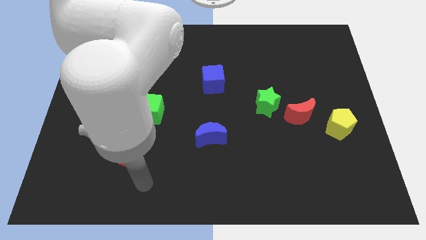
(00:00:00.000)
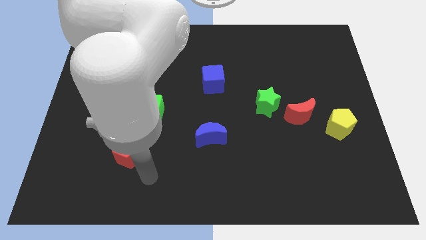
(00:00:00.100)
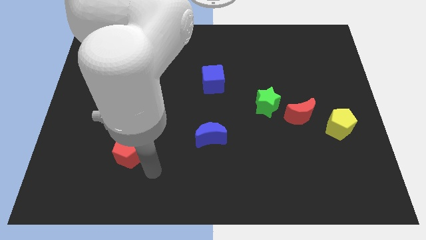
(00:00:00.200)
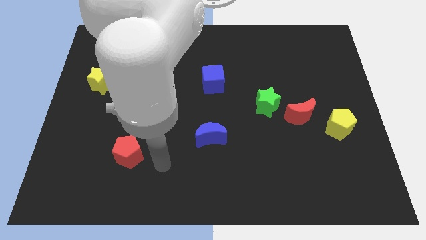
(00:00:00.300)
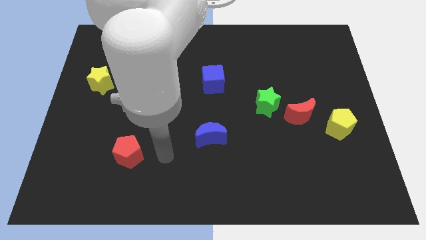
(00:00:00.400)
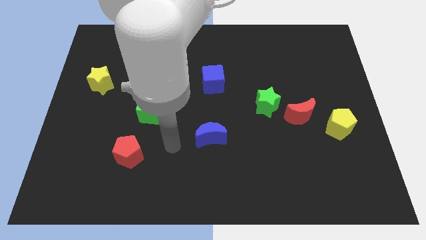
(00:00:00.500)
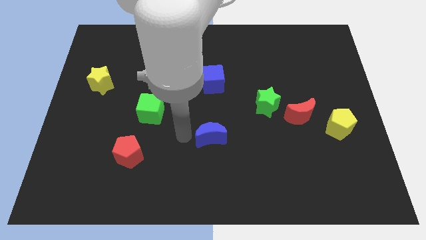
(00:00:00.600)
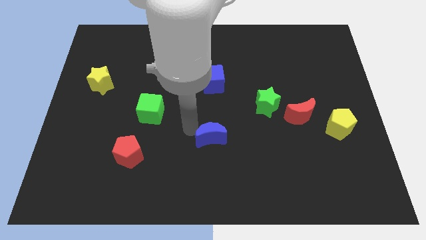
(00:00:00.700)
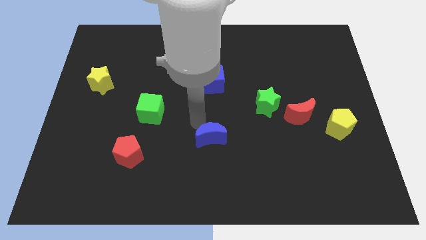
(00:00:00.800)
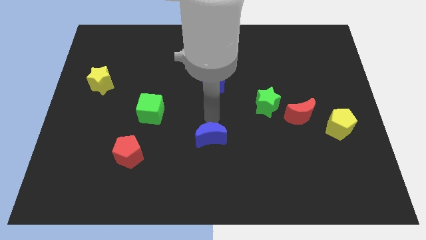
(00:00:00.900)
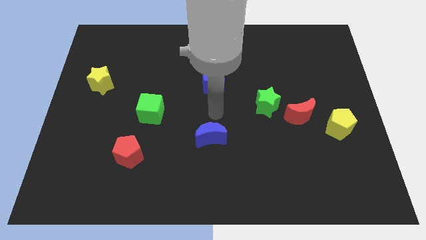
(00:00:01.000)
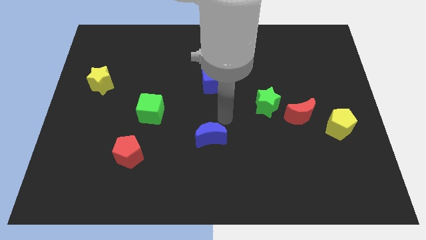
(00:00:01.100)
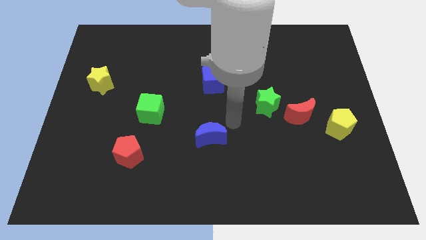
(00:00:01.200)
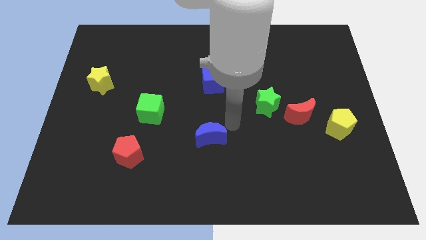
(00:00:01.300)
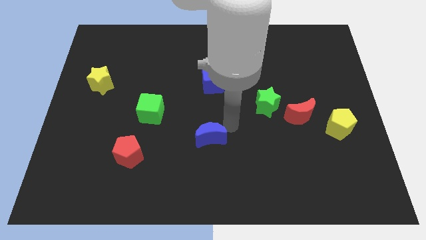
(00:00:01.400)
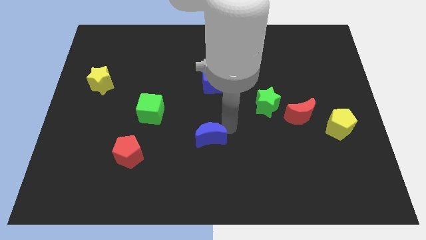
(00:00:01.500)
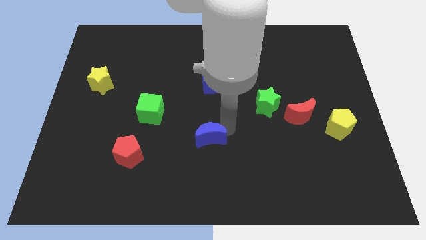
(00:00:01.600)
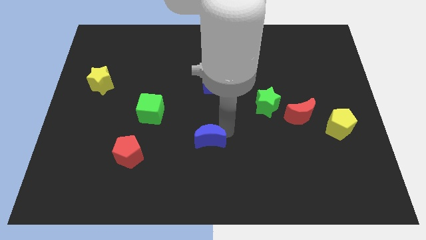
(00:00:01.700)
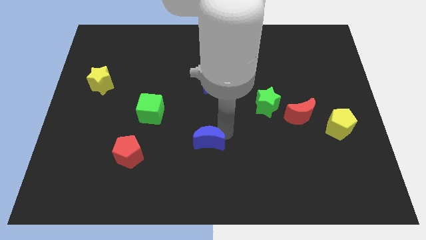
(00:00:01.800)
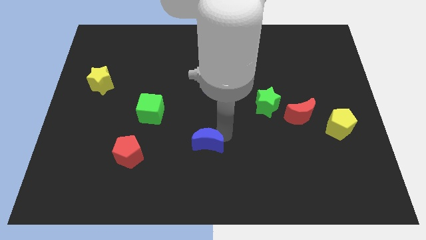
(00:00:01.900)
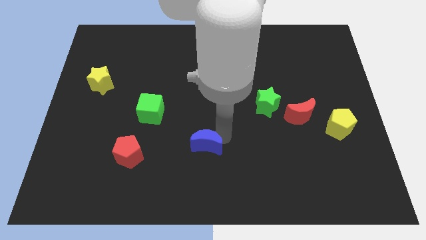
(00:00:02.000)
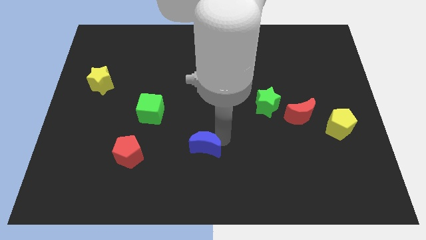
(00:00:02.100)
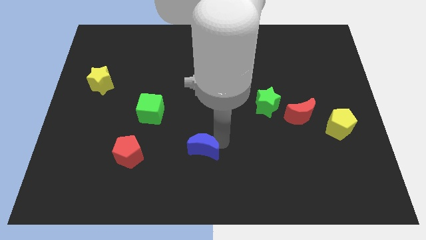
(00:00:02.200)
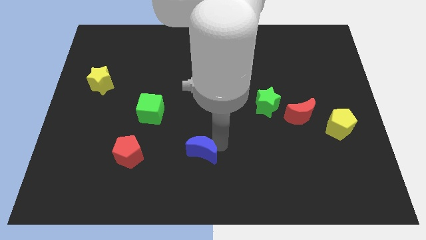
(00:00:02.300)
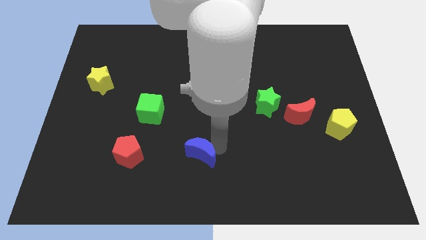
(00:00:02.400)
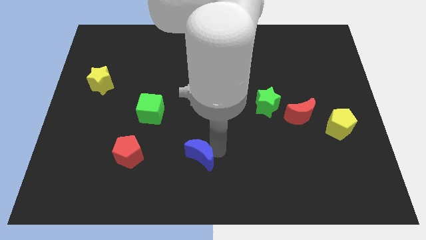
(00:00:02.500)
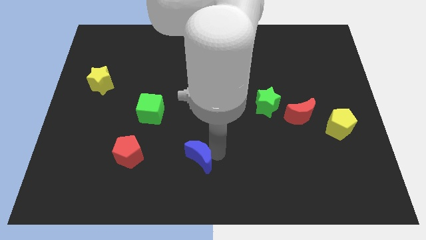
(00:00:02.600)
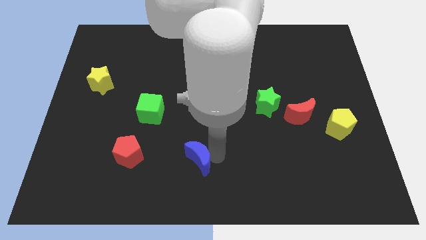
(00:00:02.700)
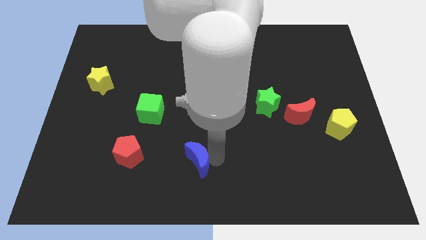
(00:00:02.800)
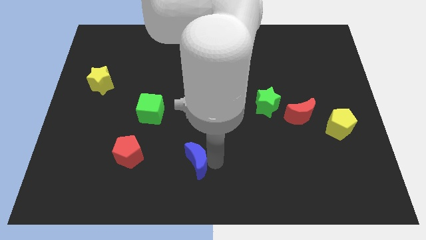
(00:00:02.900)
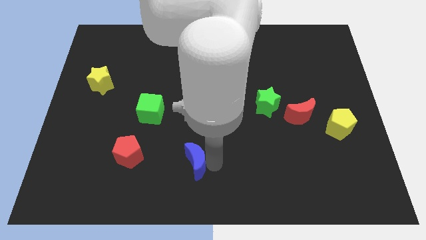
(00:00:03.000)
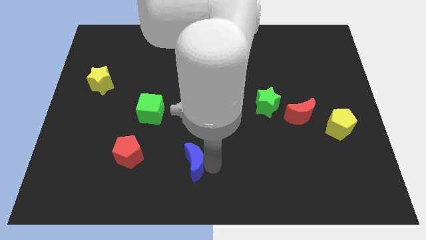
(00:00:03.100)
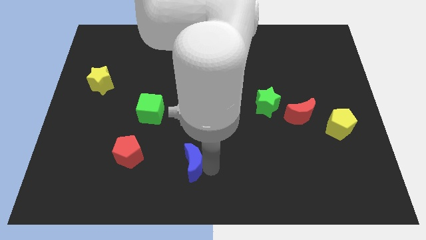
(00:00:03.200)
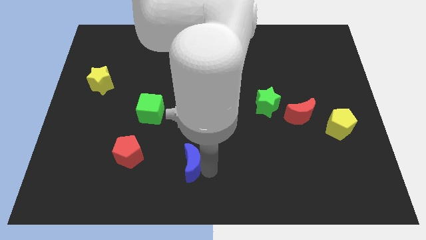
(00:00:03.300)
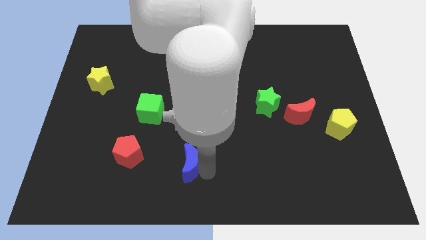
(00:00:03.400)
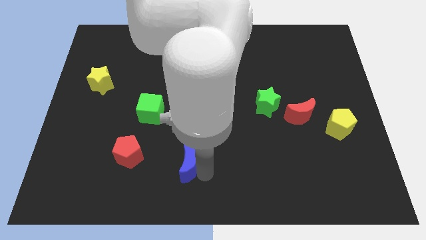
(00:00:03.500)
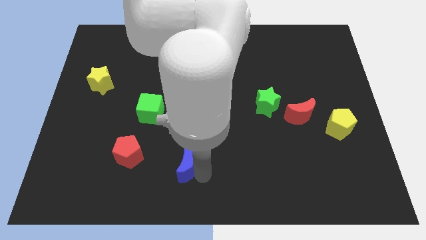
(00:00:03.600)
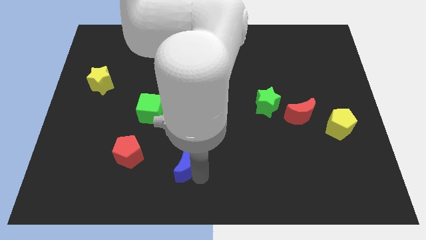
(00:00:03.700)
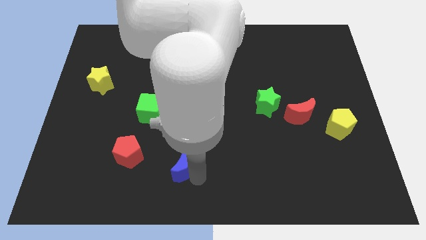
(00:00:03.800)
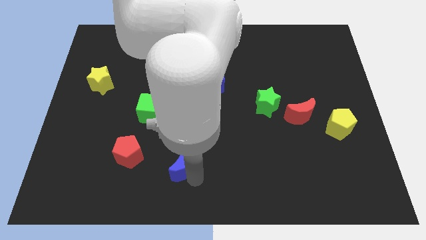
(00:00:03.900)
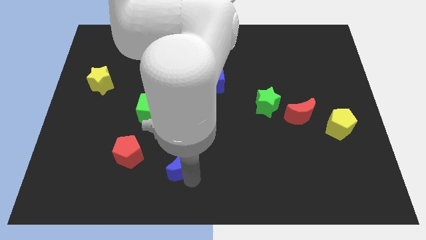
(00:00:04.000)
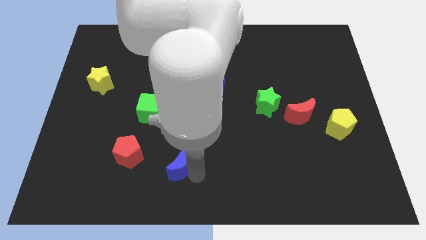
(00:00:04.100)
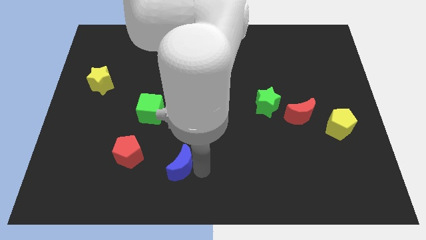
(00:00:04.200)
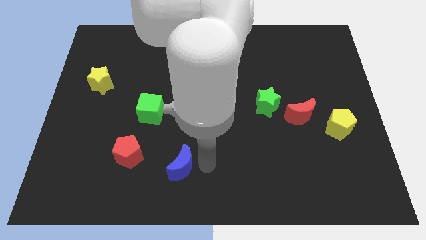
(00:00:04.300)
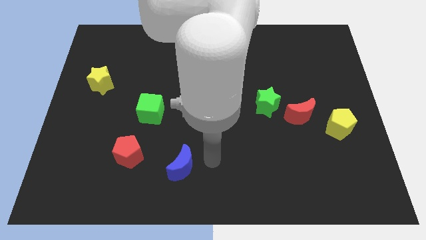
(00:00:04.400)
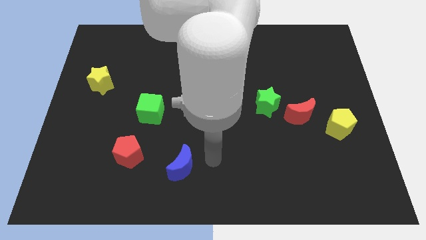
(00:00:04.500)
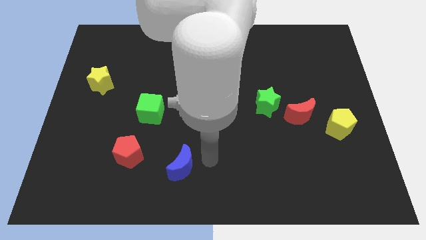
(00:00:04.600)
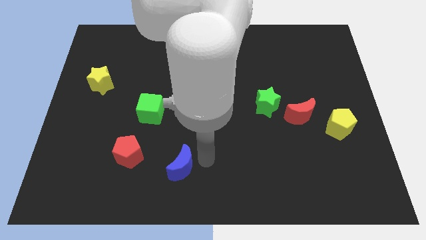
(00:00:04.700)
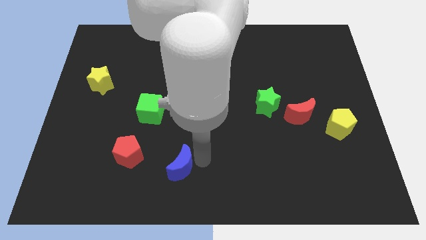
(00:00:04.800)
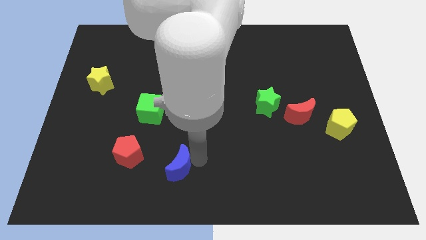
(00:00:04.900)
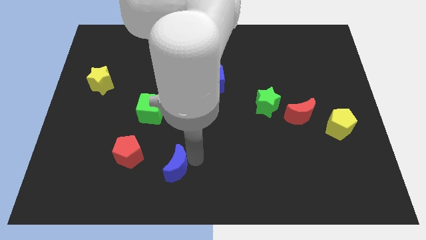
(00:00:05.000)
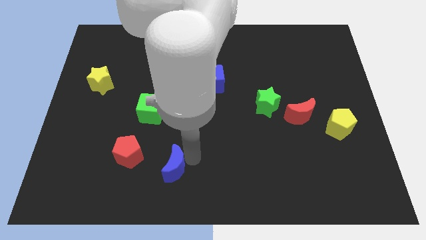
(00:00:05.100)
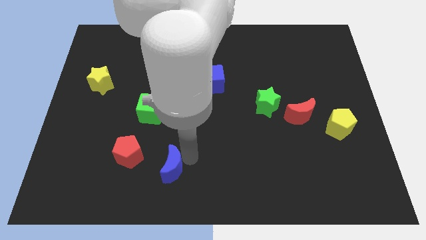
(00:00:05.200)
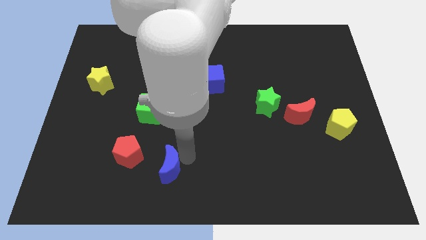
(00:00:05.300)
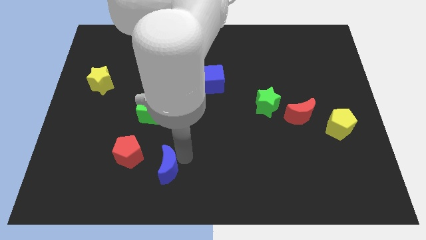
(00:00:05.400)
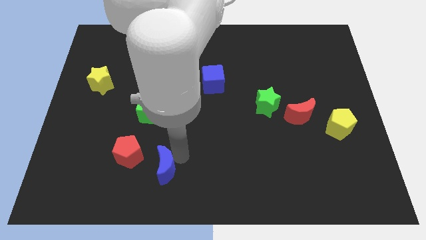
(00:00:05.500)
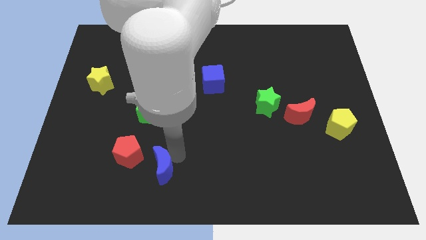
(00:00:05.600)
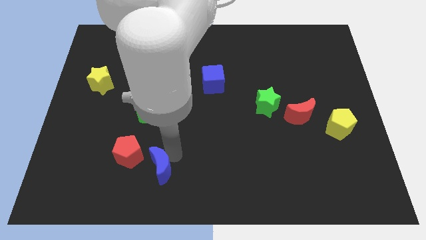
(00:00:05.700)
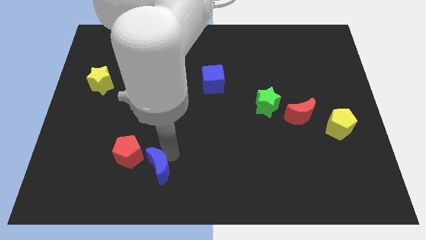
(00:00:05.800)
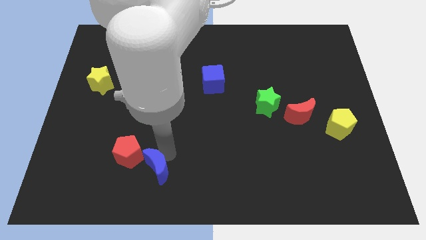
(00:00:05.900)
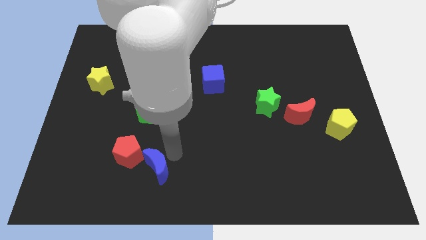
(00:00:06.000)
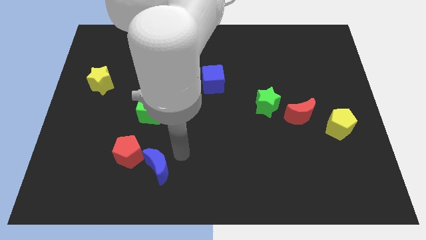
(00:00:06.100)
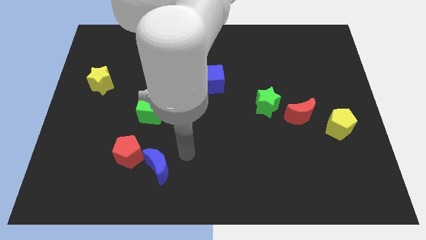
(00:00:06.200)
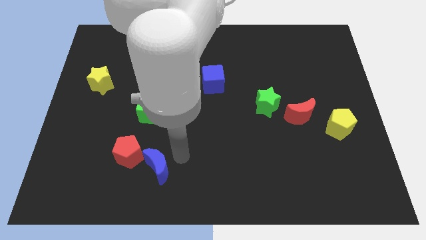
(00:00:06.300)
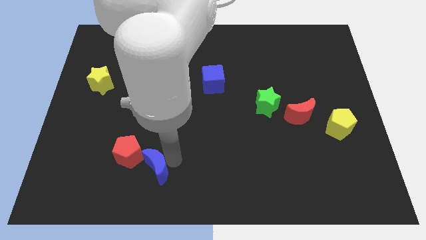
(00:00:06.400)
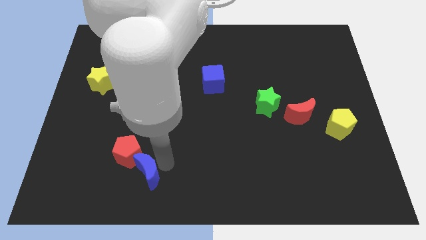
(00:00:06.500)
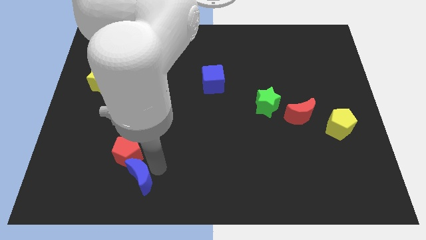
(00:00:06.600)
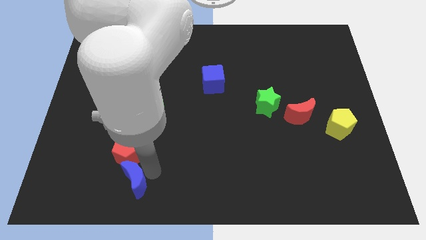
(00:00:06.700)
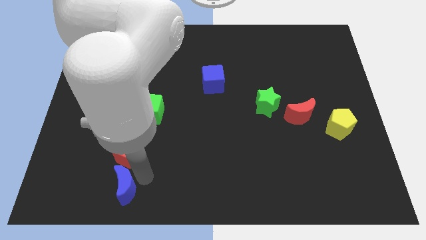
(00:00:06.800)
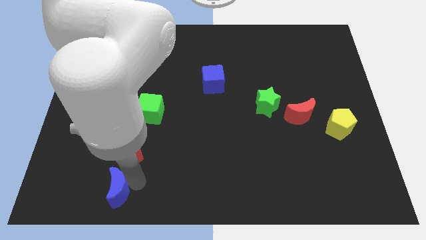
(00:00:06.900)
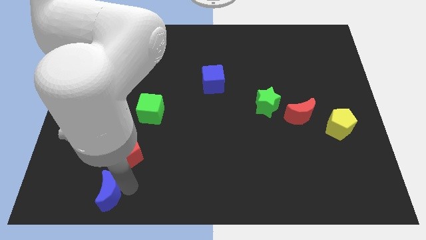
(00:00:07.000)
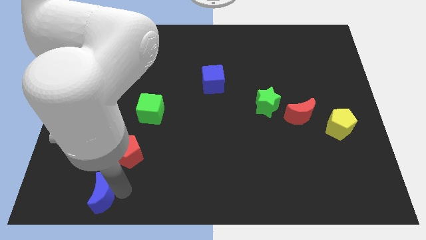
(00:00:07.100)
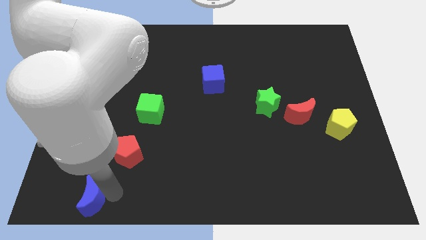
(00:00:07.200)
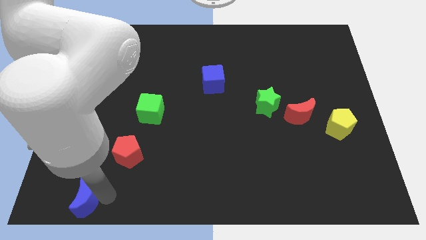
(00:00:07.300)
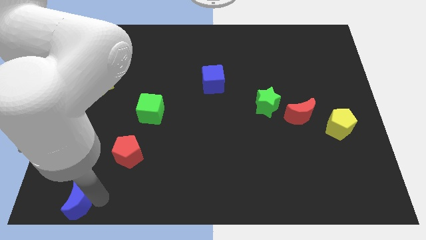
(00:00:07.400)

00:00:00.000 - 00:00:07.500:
move the blue moon to the bottom left corner
